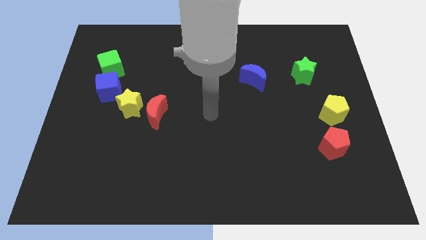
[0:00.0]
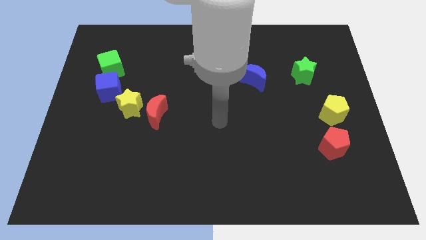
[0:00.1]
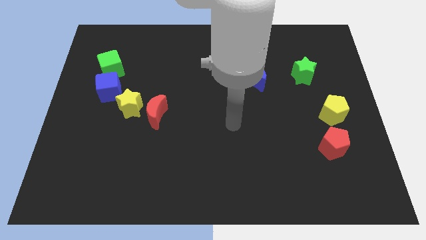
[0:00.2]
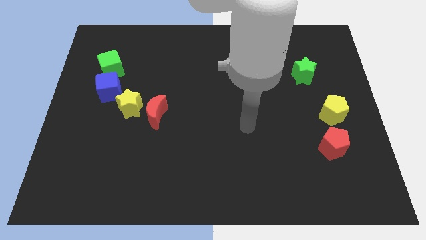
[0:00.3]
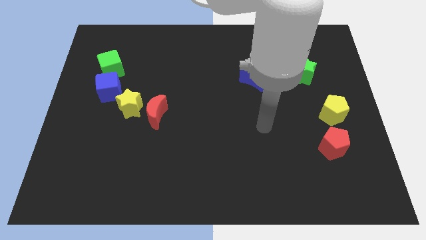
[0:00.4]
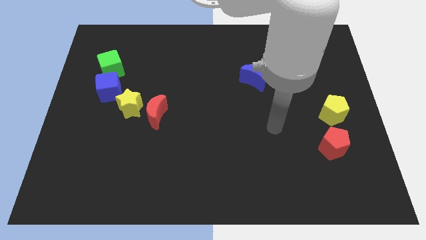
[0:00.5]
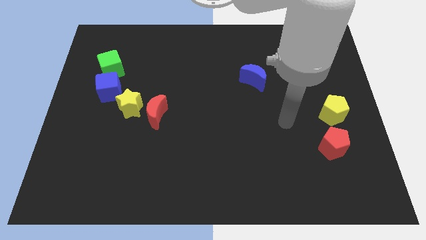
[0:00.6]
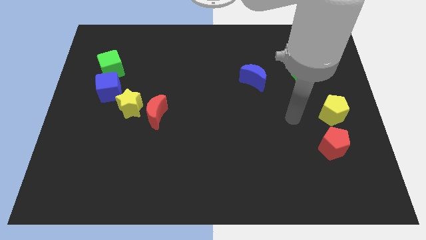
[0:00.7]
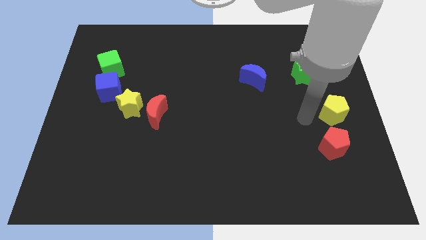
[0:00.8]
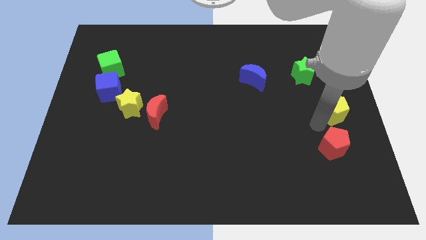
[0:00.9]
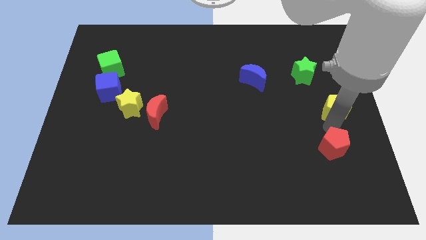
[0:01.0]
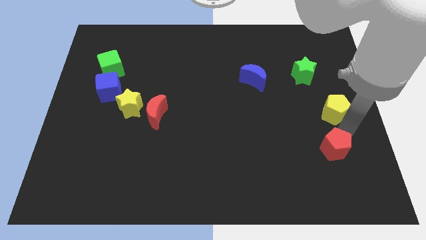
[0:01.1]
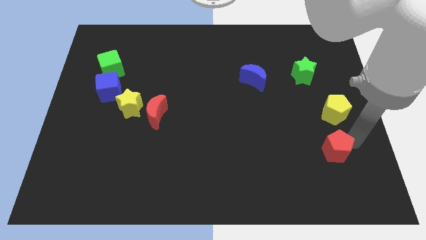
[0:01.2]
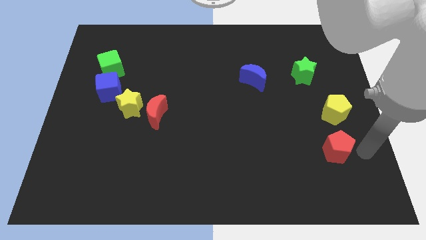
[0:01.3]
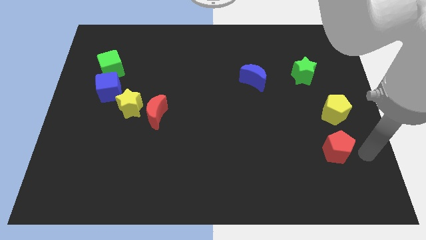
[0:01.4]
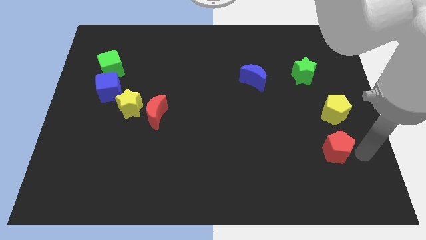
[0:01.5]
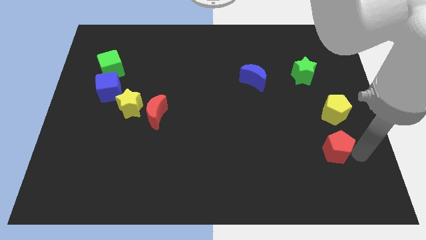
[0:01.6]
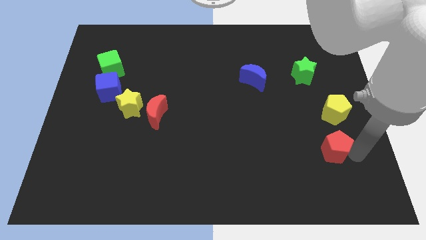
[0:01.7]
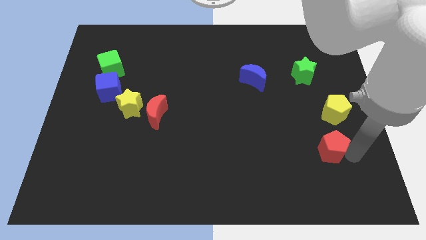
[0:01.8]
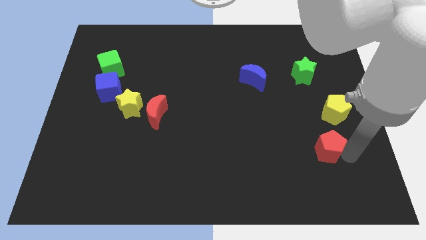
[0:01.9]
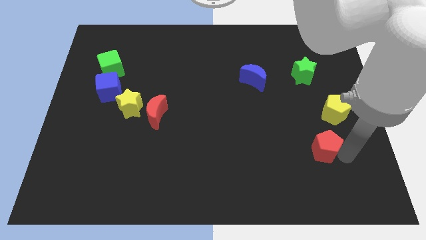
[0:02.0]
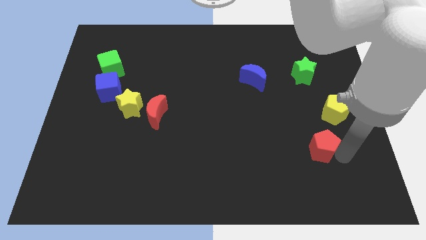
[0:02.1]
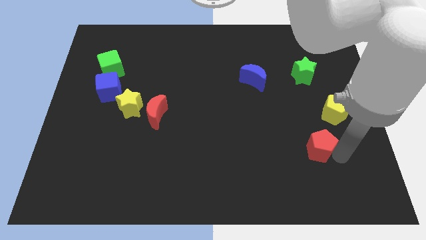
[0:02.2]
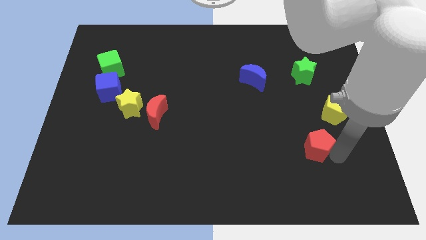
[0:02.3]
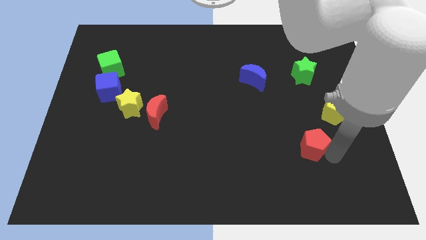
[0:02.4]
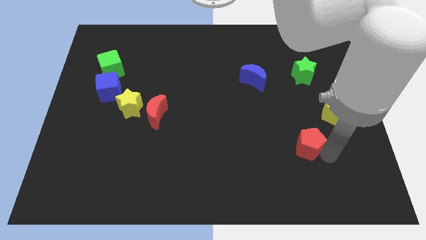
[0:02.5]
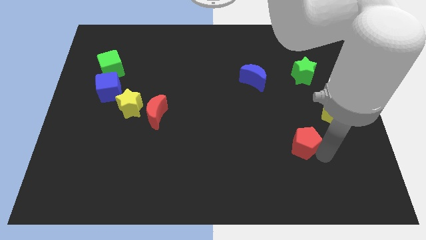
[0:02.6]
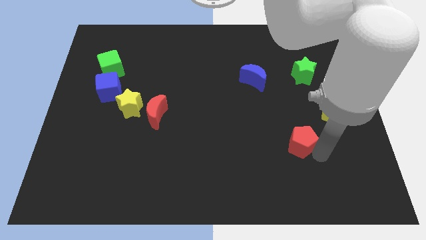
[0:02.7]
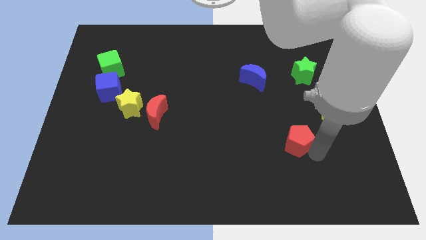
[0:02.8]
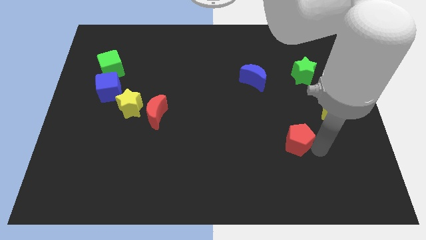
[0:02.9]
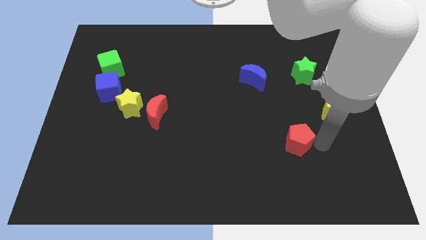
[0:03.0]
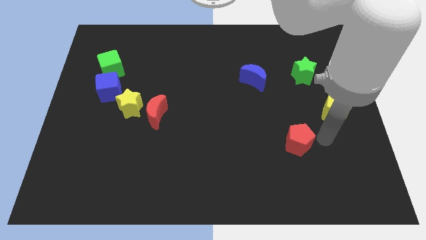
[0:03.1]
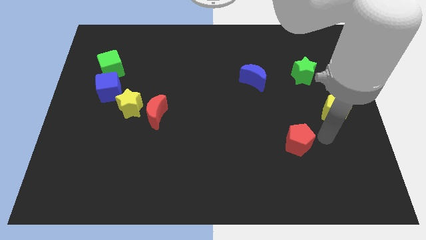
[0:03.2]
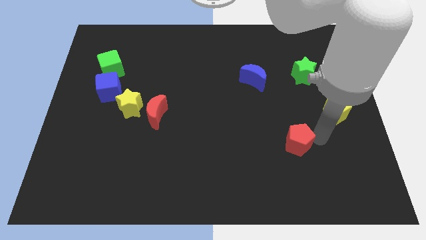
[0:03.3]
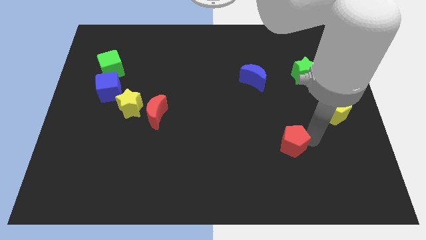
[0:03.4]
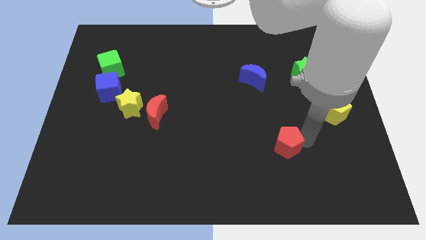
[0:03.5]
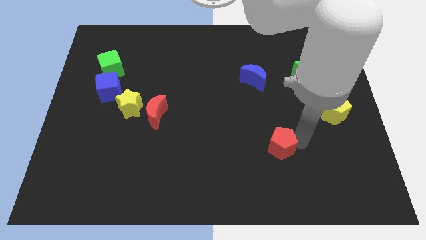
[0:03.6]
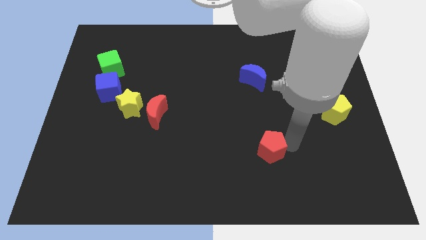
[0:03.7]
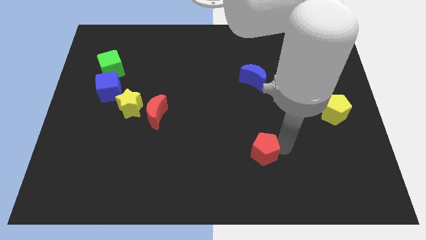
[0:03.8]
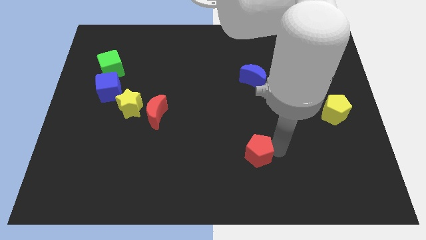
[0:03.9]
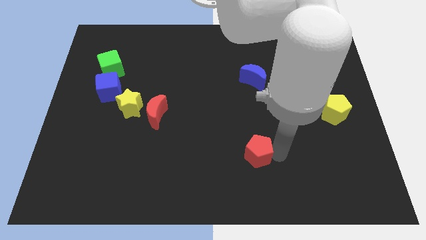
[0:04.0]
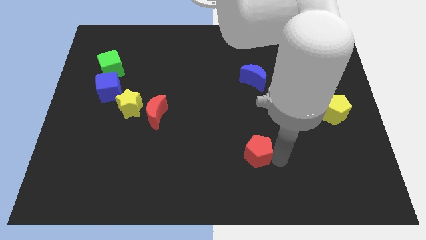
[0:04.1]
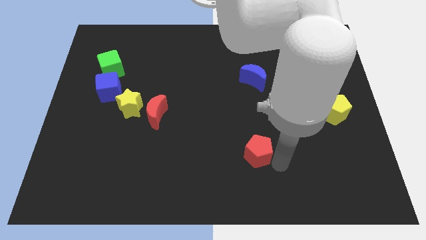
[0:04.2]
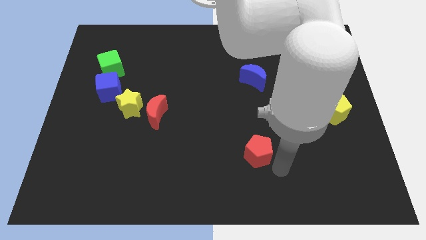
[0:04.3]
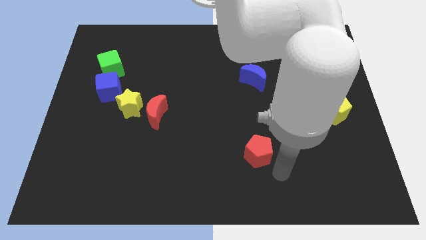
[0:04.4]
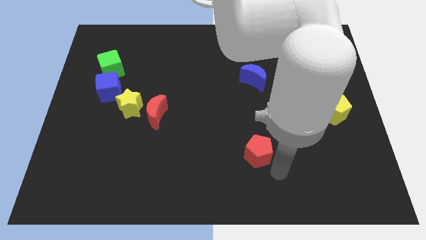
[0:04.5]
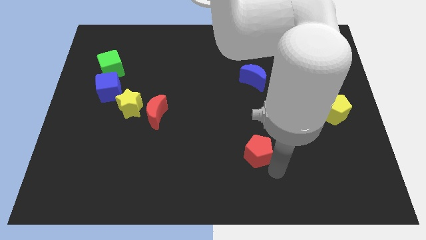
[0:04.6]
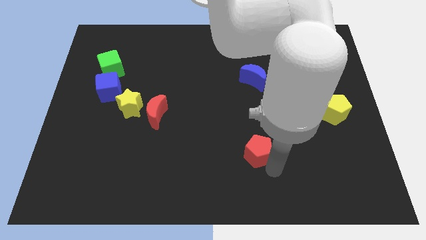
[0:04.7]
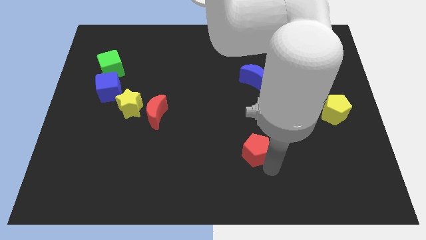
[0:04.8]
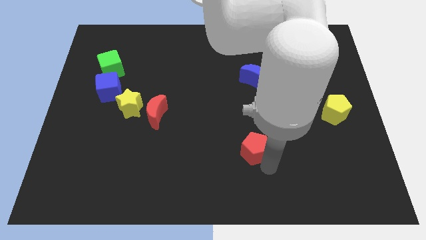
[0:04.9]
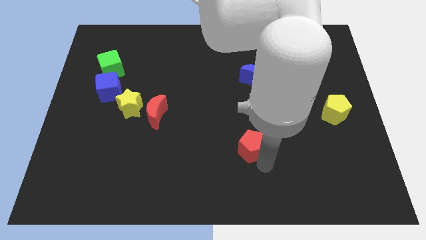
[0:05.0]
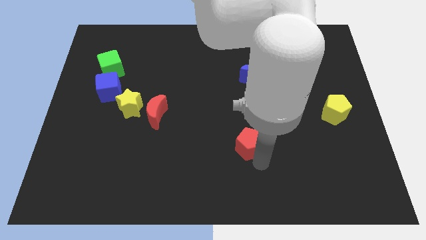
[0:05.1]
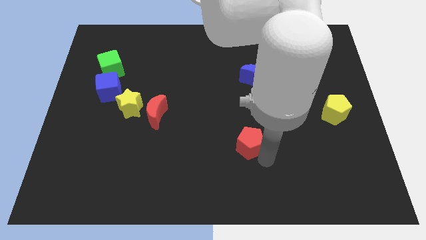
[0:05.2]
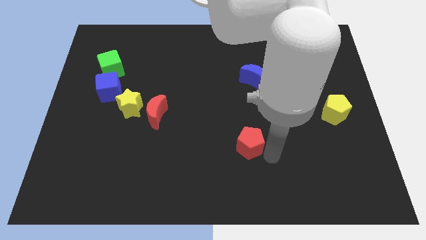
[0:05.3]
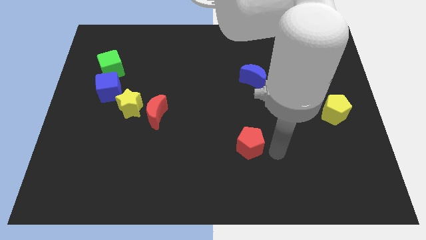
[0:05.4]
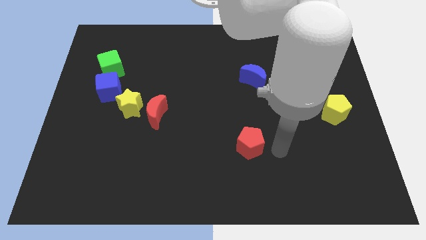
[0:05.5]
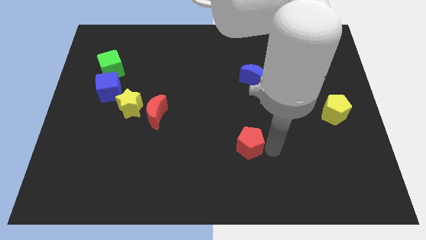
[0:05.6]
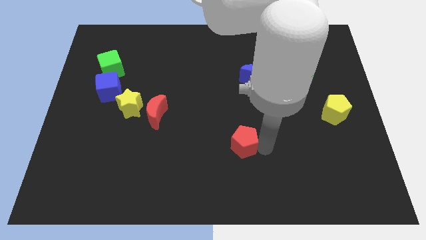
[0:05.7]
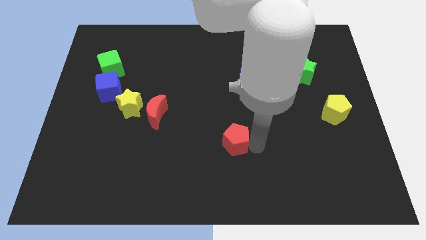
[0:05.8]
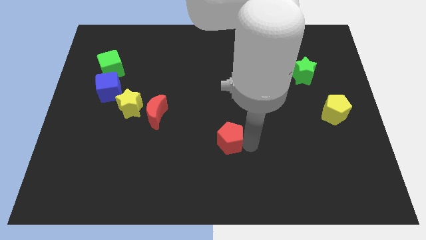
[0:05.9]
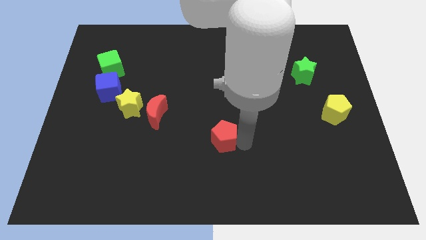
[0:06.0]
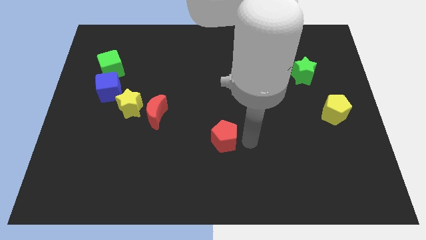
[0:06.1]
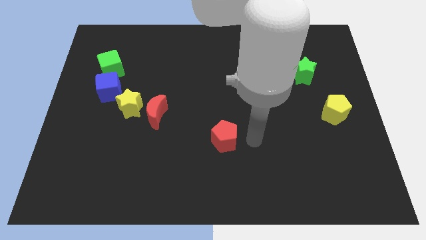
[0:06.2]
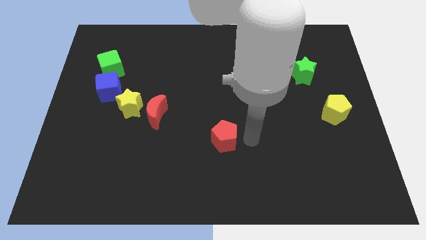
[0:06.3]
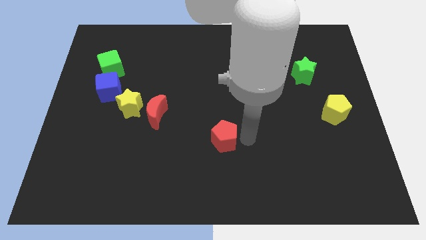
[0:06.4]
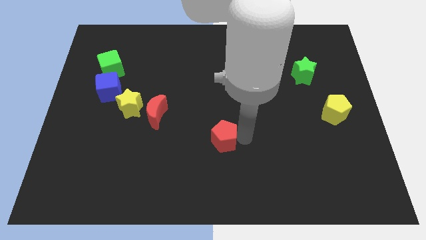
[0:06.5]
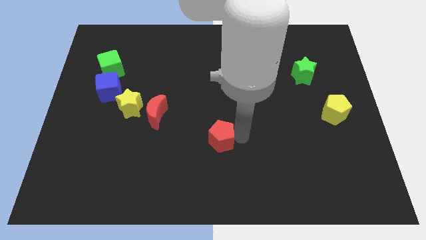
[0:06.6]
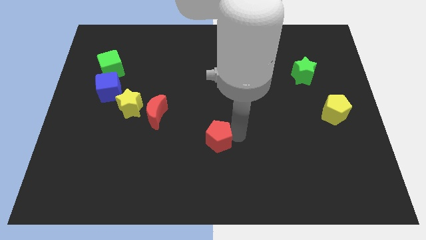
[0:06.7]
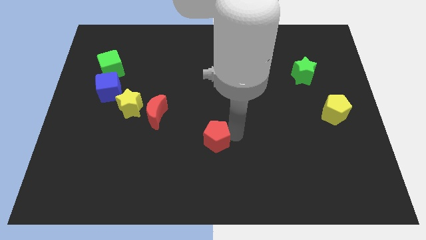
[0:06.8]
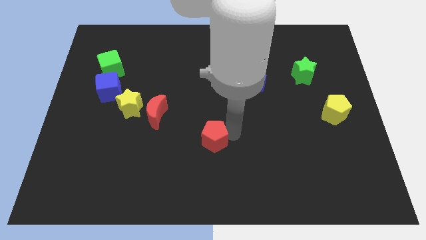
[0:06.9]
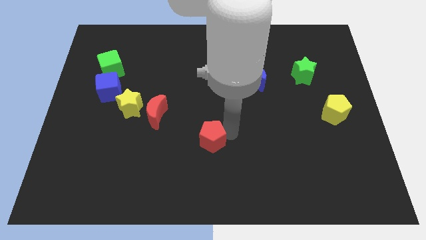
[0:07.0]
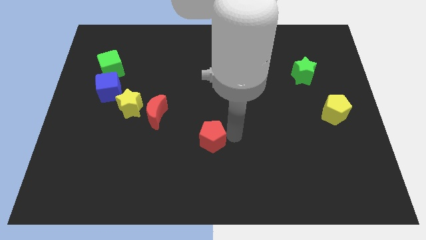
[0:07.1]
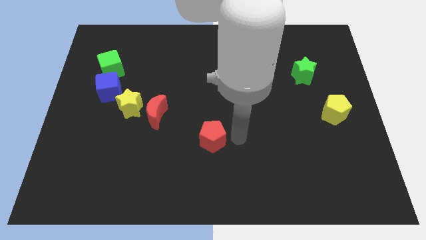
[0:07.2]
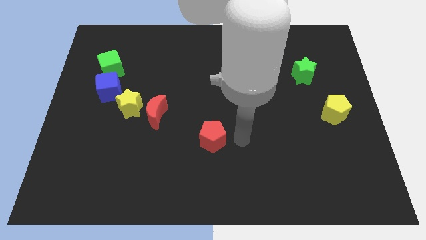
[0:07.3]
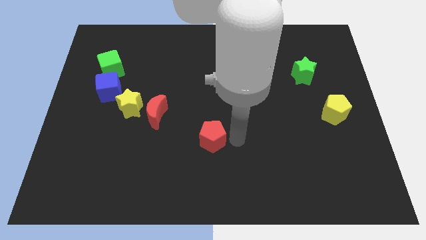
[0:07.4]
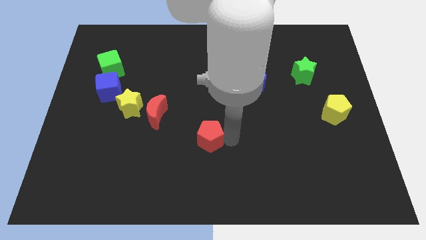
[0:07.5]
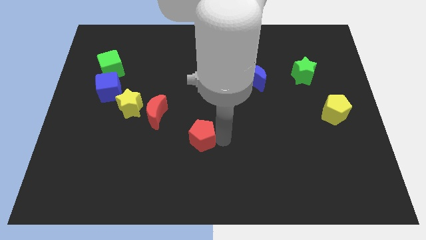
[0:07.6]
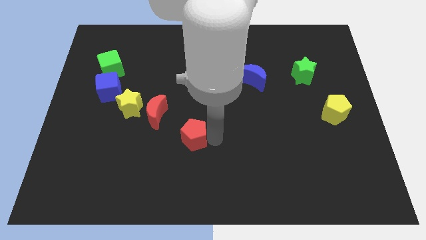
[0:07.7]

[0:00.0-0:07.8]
put the red pentagon diagonally down and to the right of the red moon
